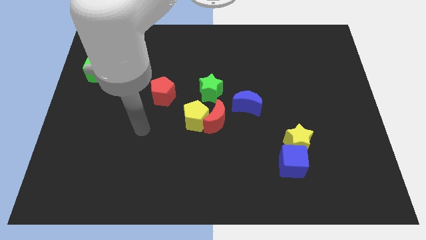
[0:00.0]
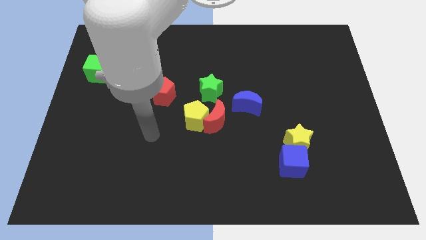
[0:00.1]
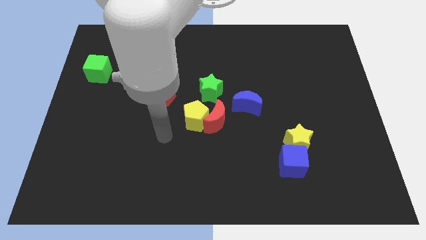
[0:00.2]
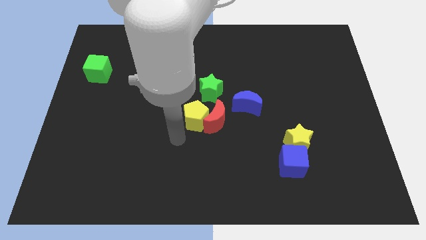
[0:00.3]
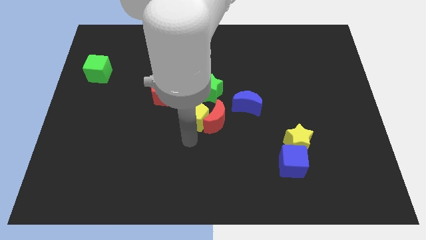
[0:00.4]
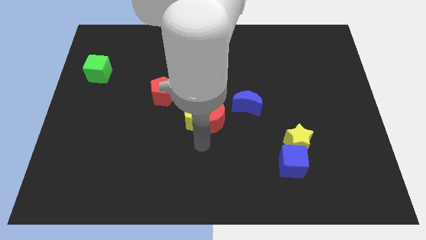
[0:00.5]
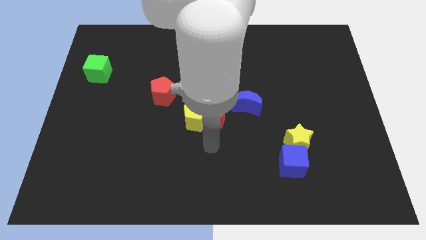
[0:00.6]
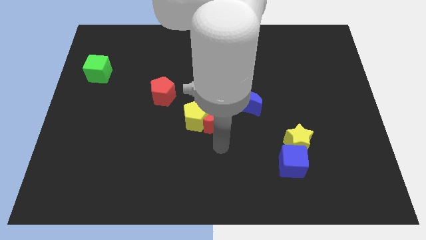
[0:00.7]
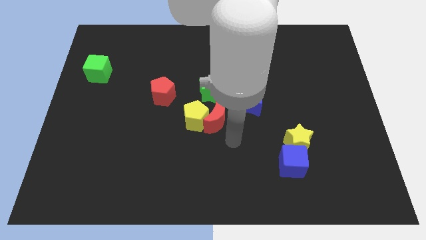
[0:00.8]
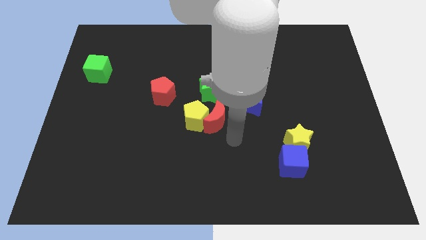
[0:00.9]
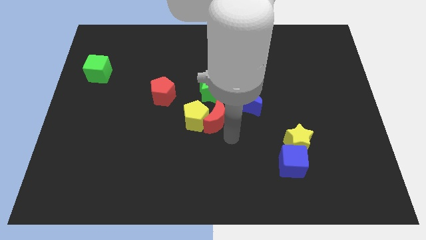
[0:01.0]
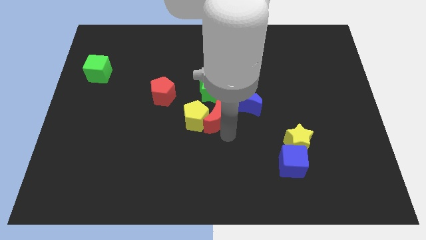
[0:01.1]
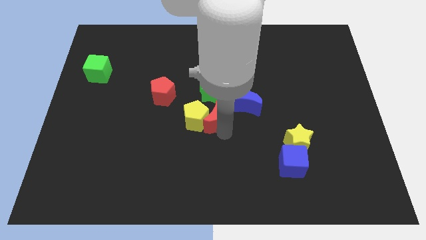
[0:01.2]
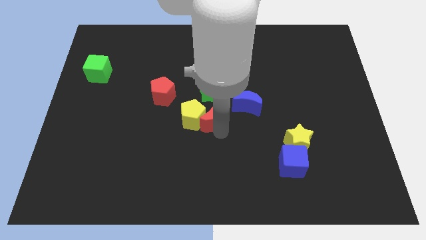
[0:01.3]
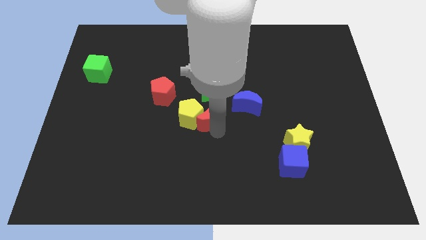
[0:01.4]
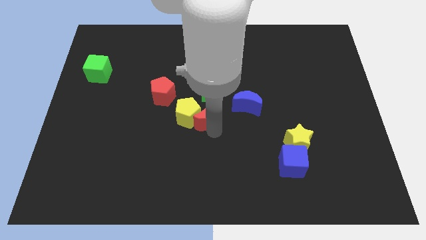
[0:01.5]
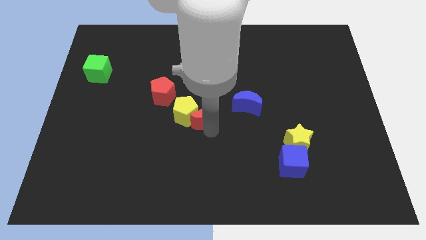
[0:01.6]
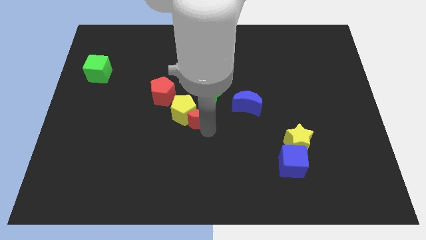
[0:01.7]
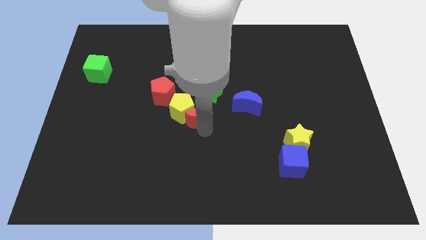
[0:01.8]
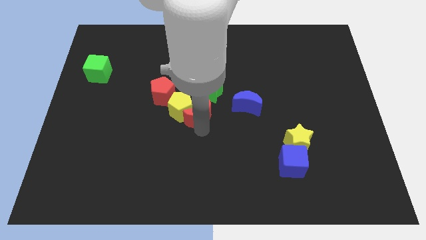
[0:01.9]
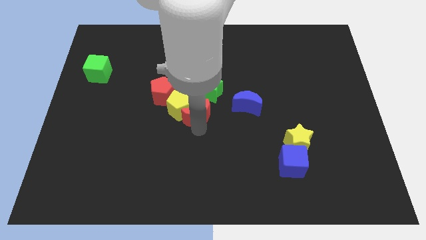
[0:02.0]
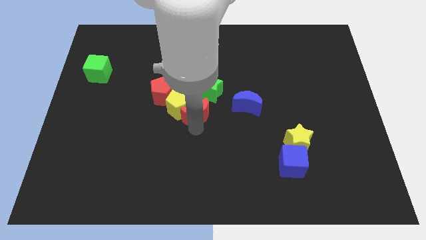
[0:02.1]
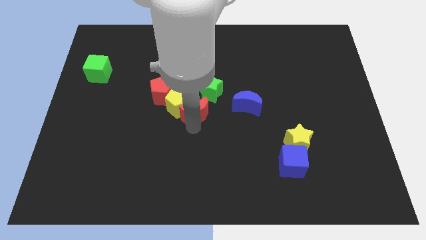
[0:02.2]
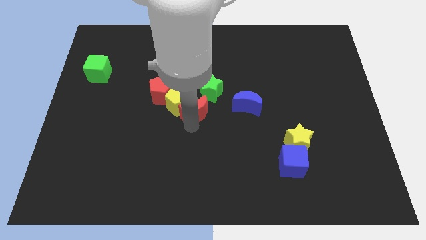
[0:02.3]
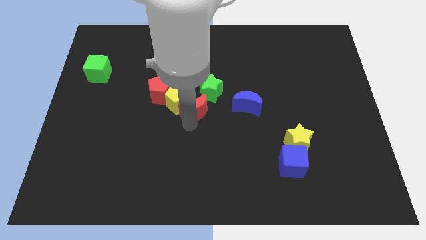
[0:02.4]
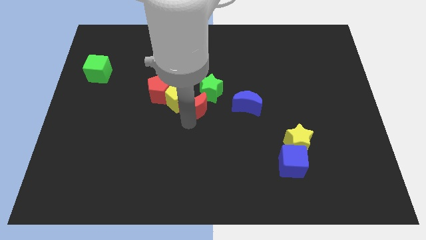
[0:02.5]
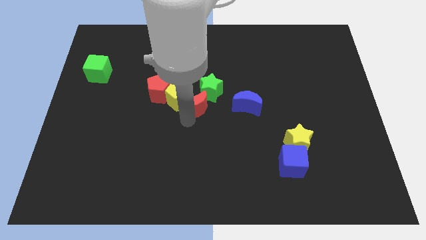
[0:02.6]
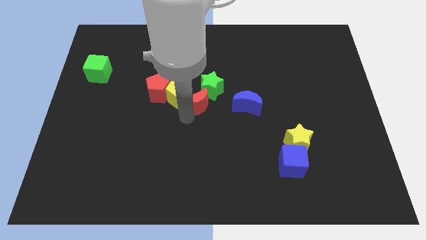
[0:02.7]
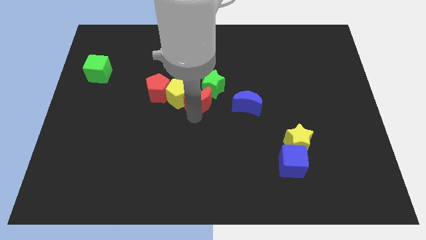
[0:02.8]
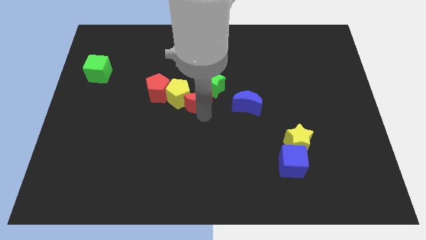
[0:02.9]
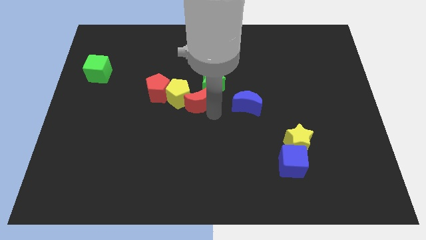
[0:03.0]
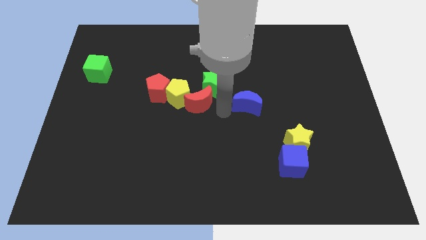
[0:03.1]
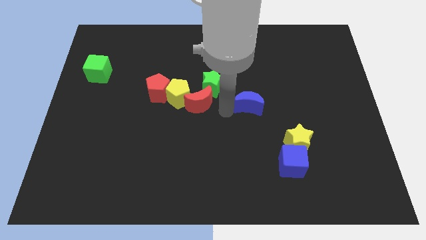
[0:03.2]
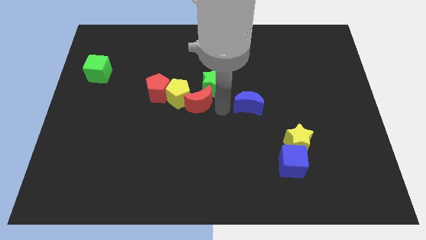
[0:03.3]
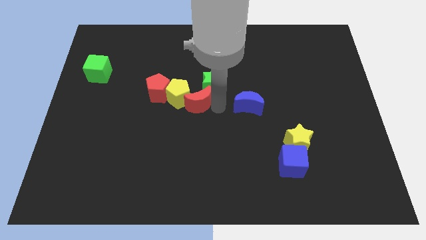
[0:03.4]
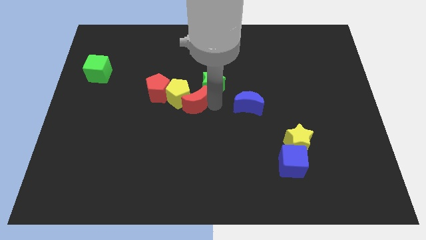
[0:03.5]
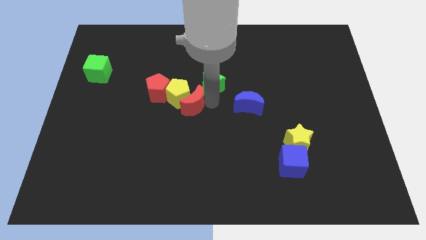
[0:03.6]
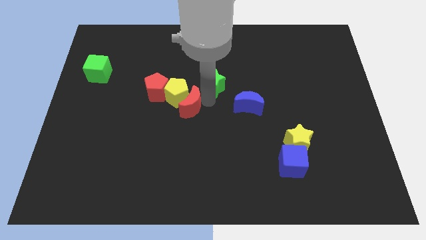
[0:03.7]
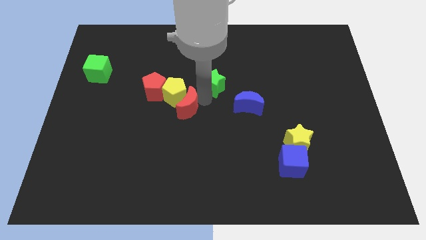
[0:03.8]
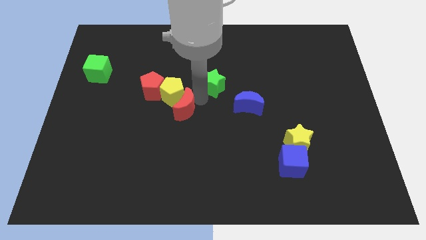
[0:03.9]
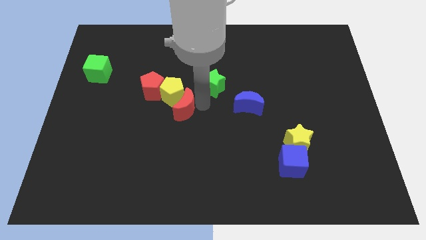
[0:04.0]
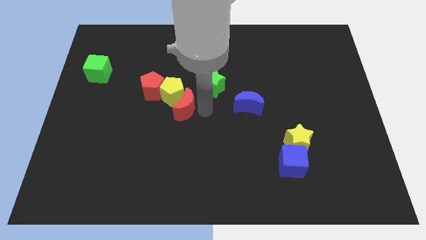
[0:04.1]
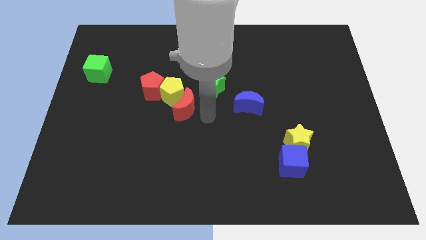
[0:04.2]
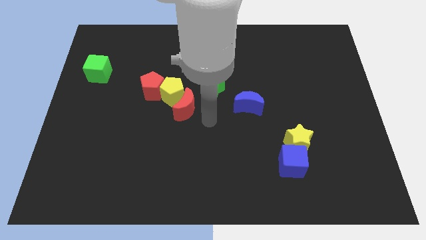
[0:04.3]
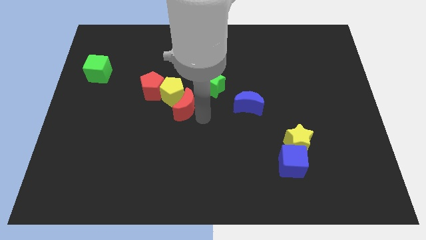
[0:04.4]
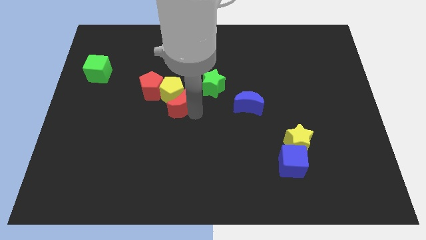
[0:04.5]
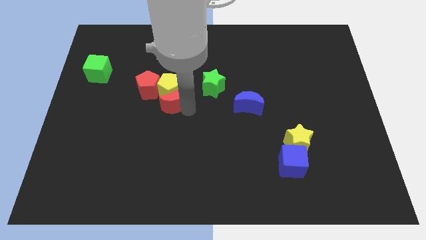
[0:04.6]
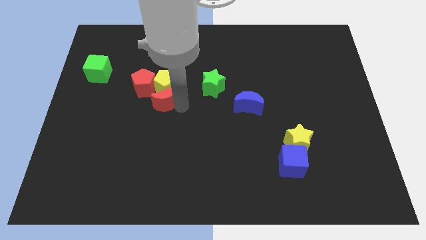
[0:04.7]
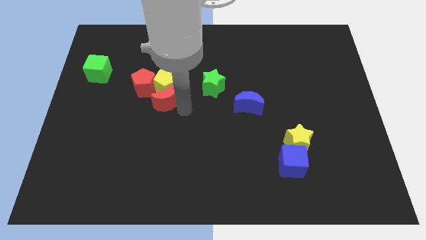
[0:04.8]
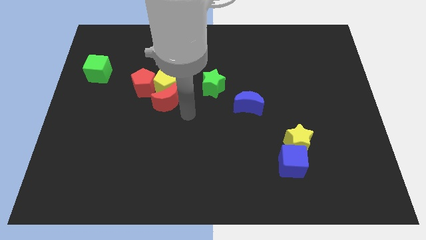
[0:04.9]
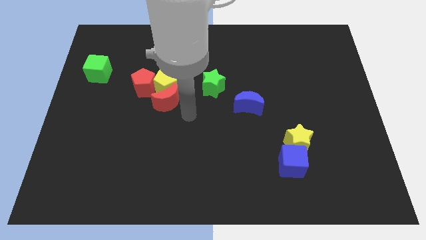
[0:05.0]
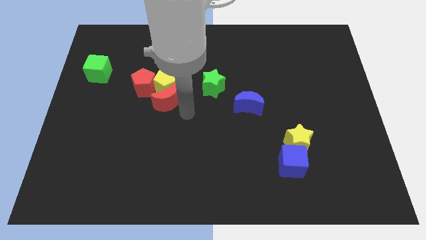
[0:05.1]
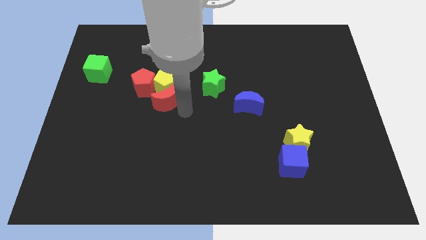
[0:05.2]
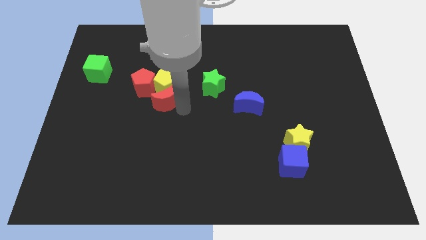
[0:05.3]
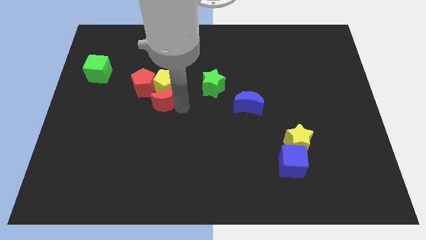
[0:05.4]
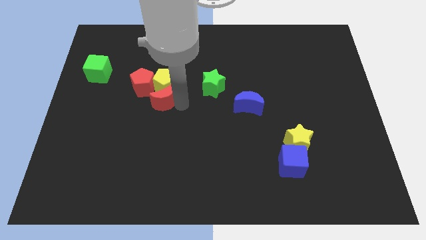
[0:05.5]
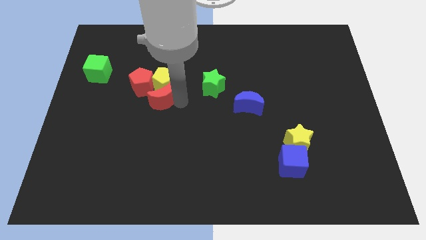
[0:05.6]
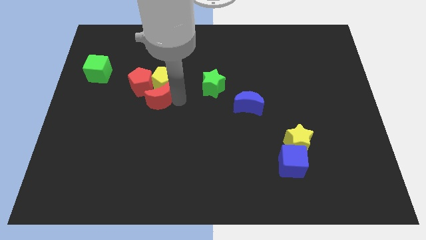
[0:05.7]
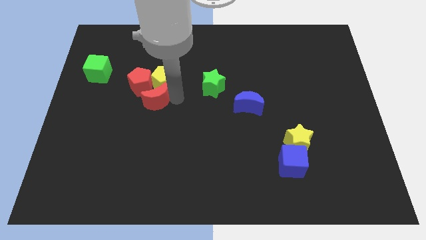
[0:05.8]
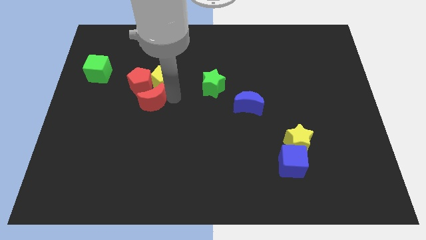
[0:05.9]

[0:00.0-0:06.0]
move the red moon to the red pentagon

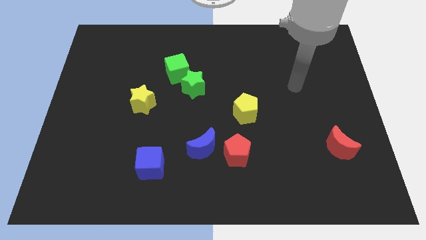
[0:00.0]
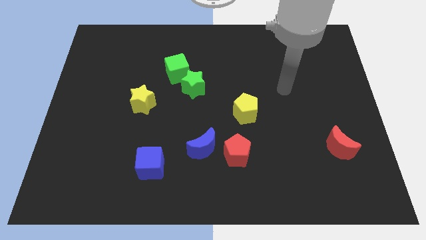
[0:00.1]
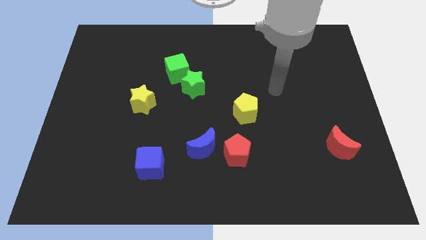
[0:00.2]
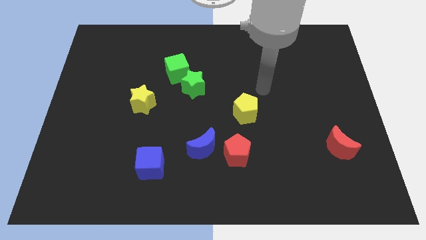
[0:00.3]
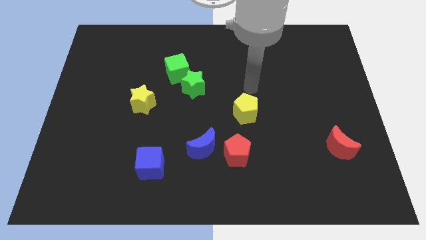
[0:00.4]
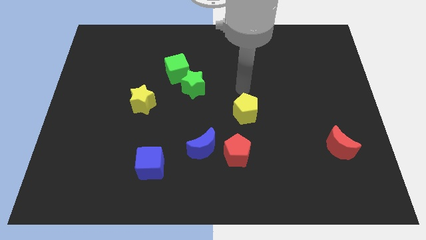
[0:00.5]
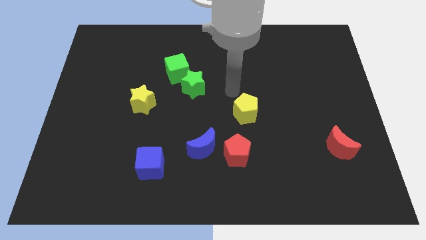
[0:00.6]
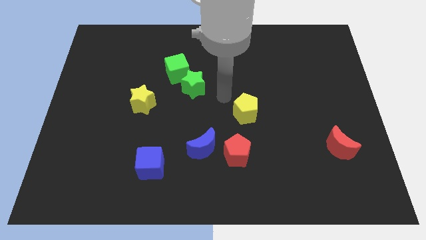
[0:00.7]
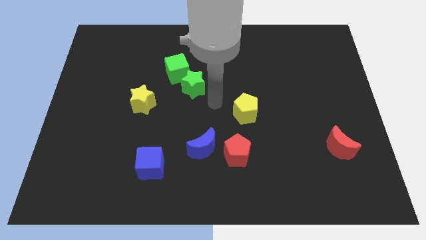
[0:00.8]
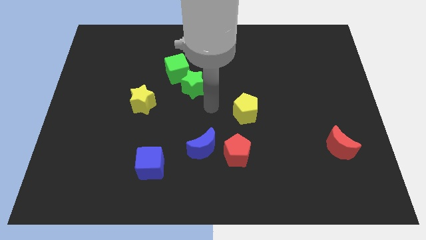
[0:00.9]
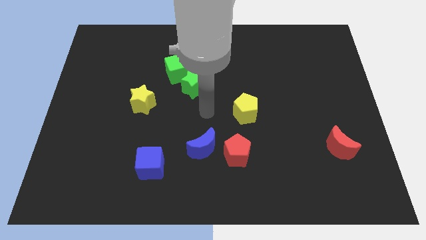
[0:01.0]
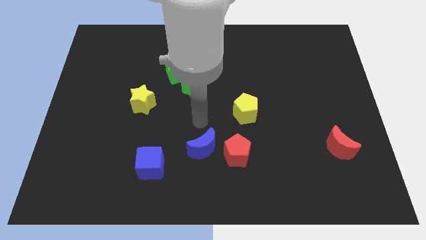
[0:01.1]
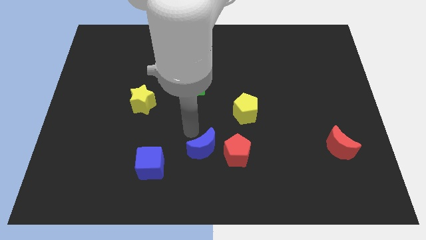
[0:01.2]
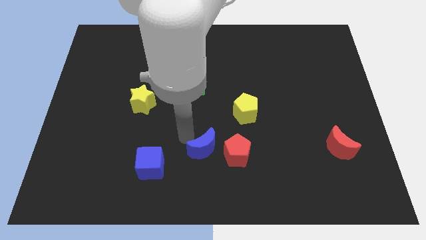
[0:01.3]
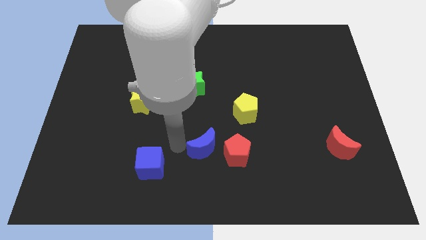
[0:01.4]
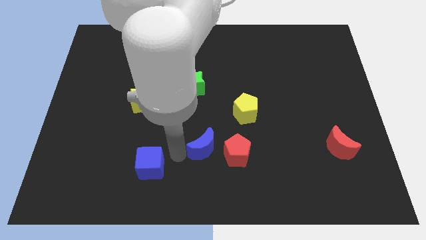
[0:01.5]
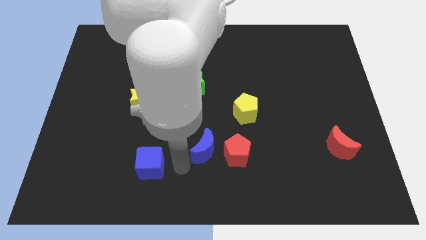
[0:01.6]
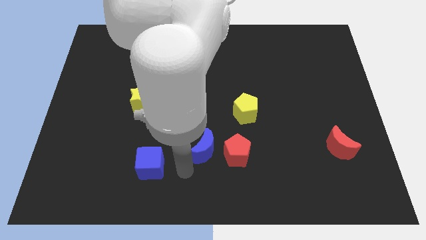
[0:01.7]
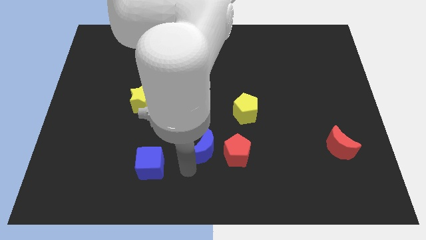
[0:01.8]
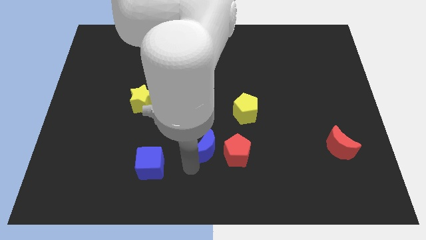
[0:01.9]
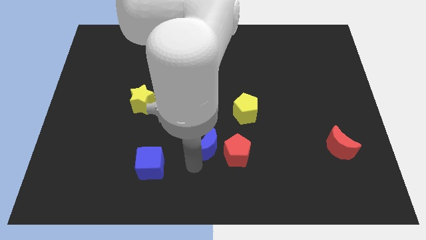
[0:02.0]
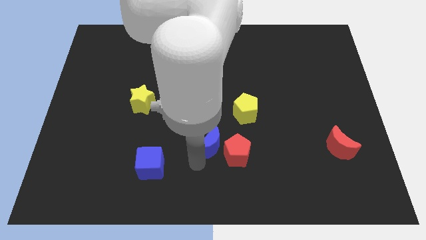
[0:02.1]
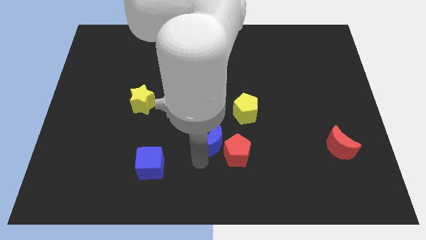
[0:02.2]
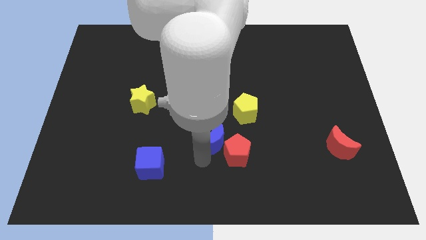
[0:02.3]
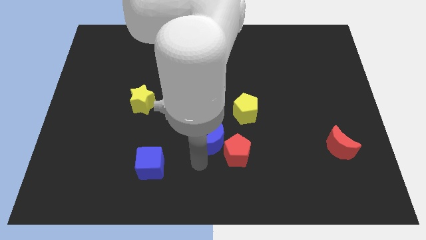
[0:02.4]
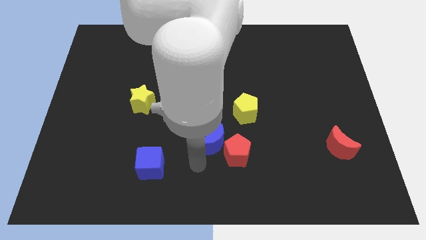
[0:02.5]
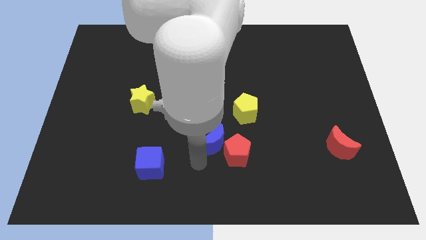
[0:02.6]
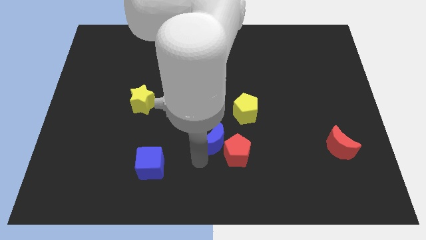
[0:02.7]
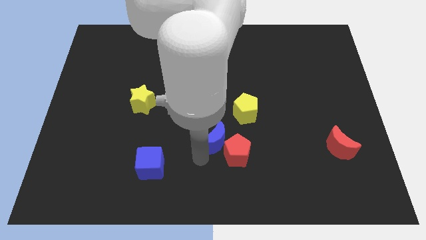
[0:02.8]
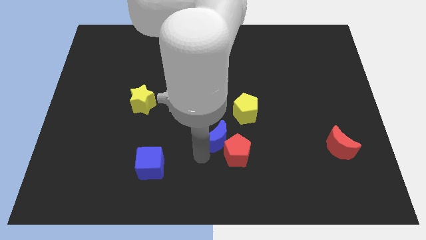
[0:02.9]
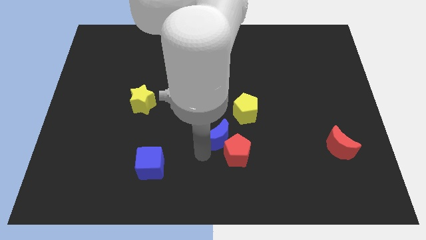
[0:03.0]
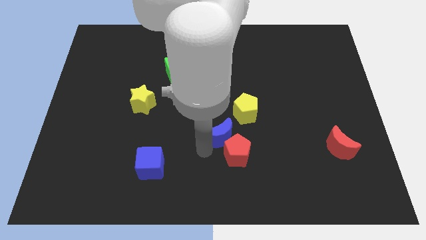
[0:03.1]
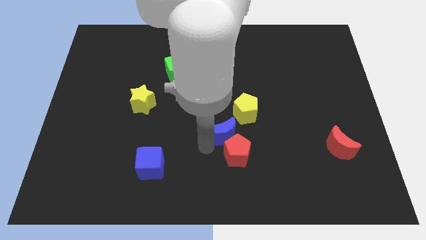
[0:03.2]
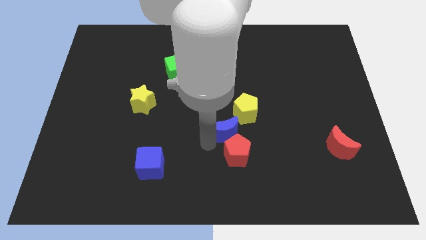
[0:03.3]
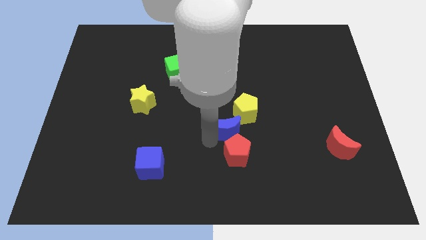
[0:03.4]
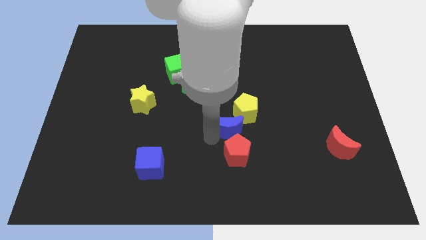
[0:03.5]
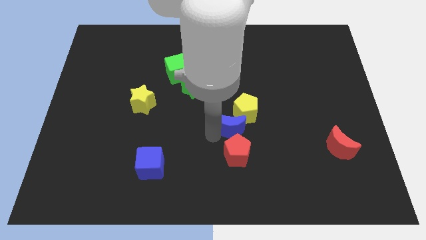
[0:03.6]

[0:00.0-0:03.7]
move the blue moon close to the yellow pentagon
